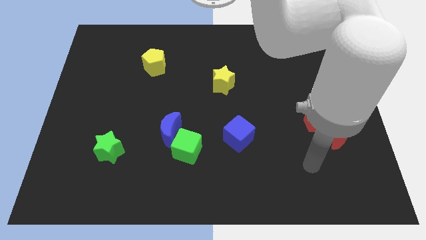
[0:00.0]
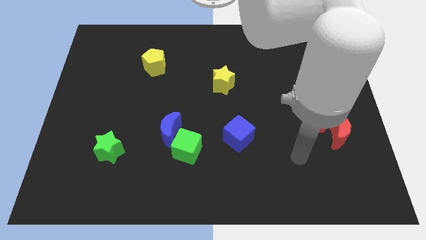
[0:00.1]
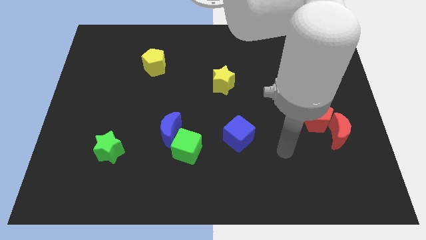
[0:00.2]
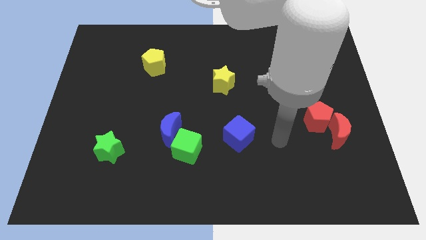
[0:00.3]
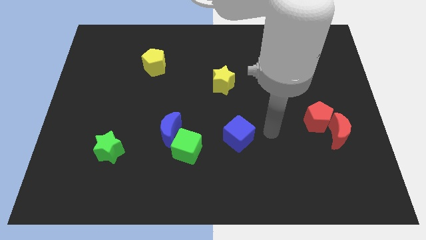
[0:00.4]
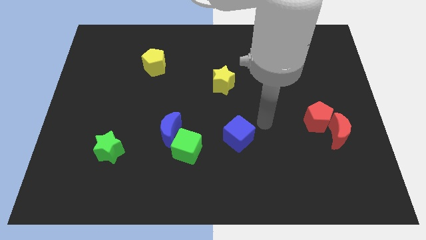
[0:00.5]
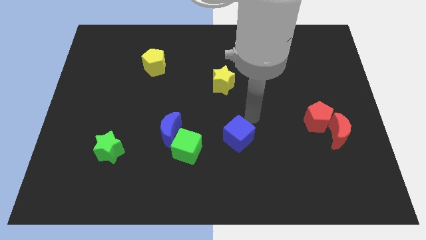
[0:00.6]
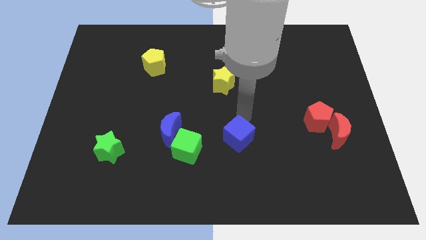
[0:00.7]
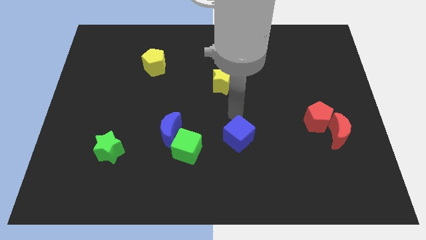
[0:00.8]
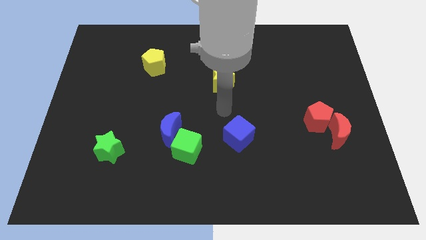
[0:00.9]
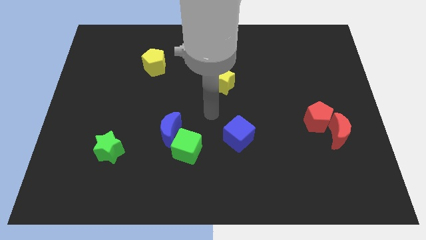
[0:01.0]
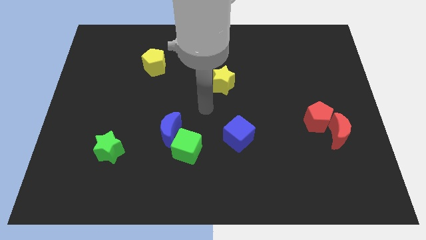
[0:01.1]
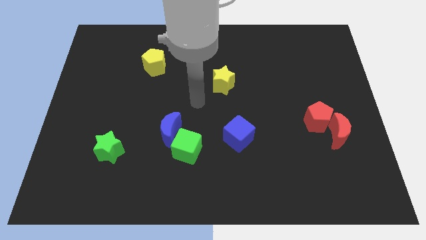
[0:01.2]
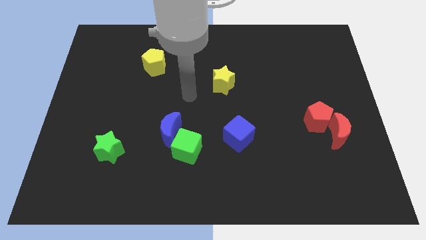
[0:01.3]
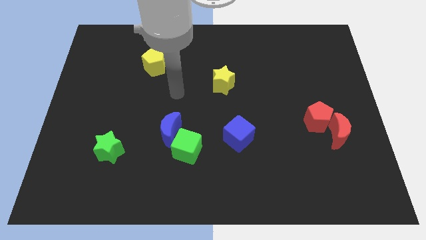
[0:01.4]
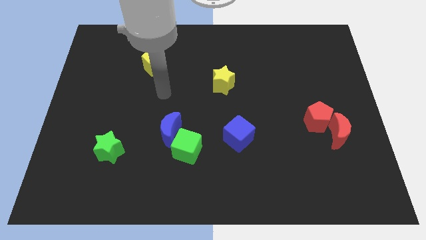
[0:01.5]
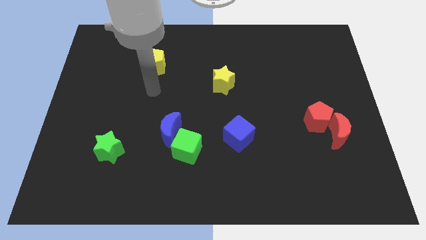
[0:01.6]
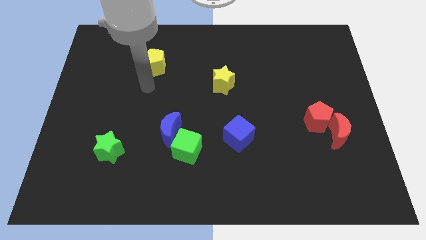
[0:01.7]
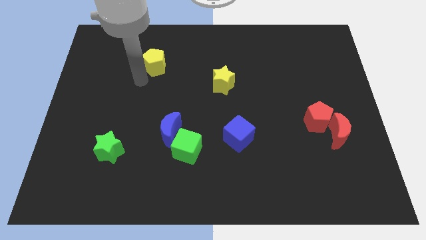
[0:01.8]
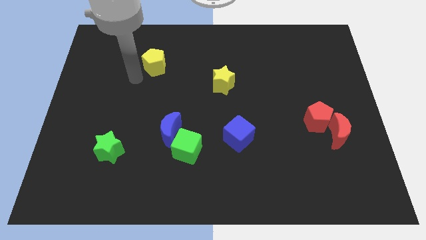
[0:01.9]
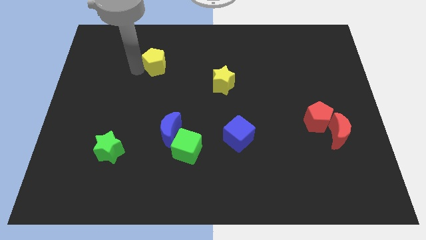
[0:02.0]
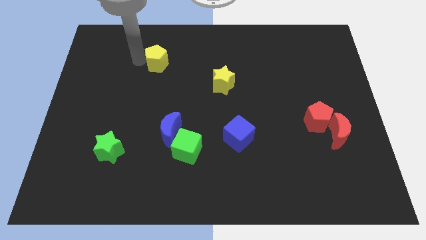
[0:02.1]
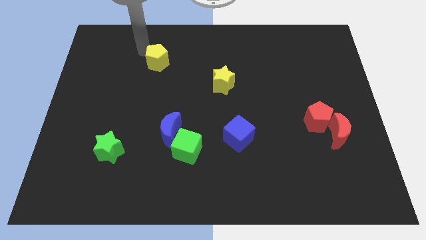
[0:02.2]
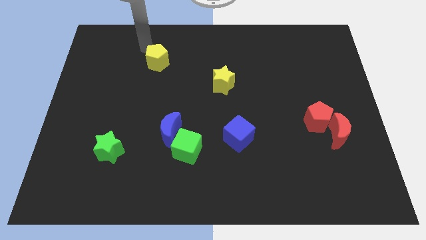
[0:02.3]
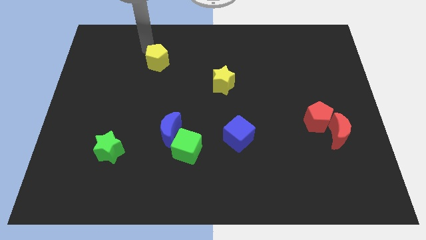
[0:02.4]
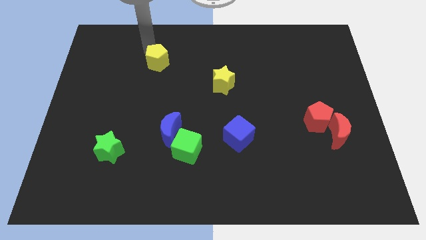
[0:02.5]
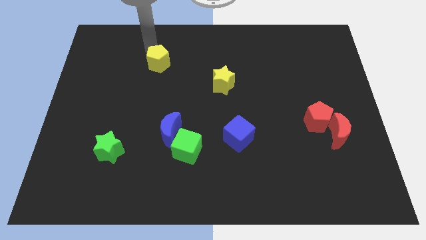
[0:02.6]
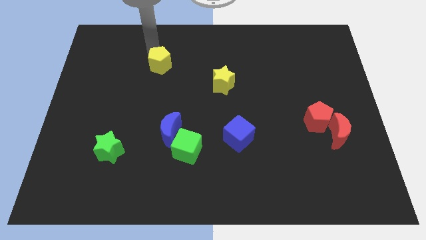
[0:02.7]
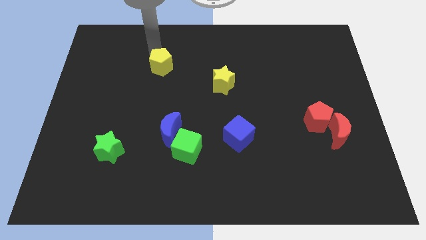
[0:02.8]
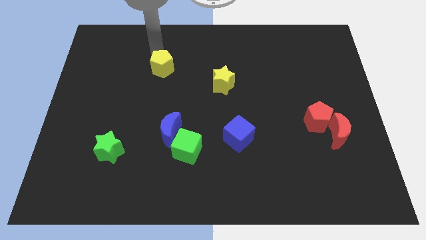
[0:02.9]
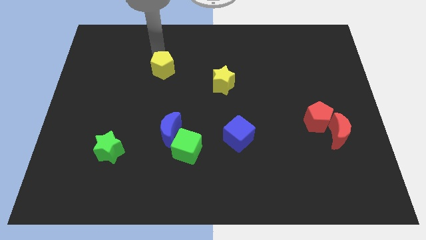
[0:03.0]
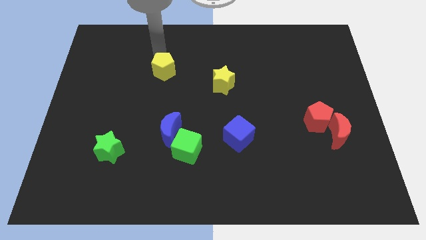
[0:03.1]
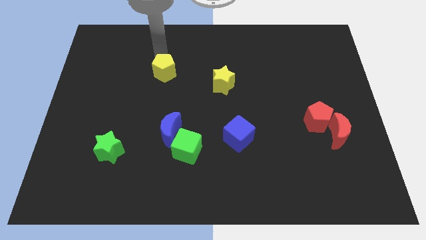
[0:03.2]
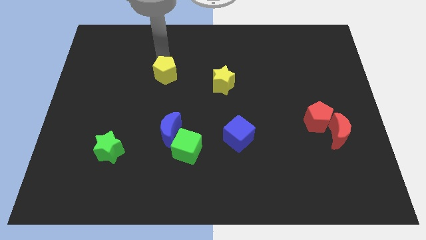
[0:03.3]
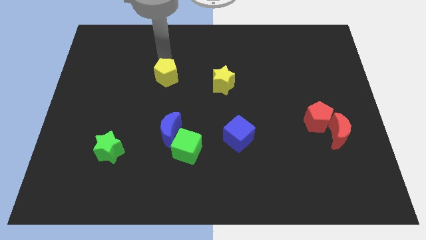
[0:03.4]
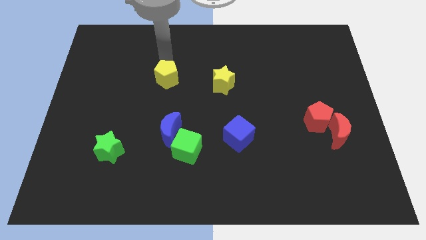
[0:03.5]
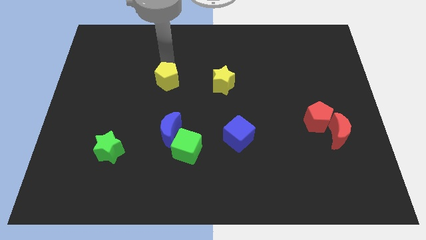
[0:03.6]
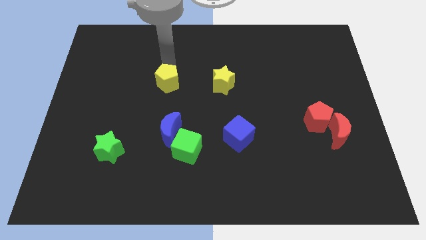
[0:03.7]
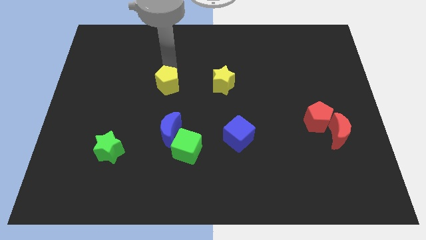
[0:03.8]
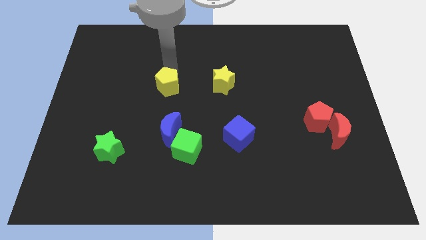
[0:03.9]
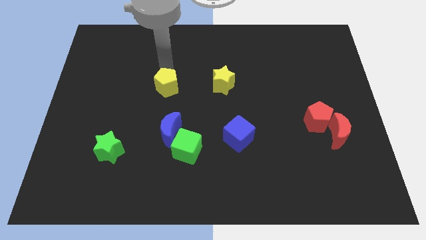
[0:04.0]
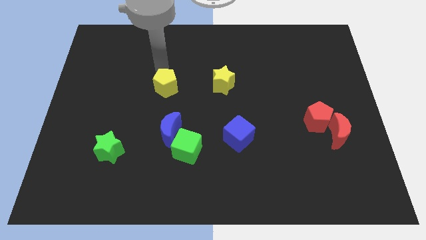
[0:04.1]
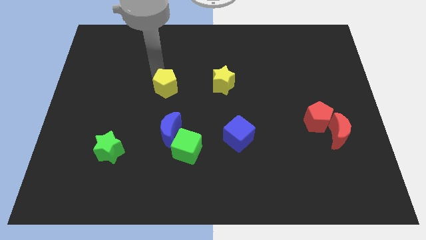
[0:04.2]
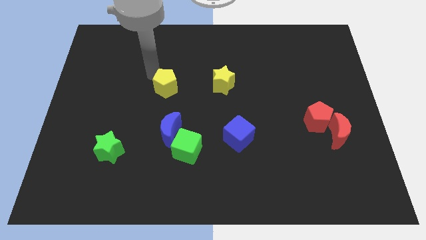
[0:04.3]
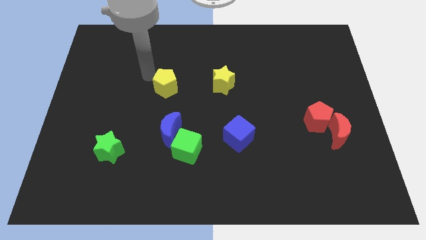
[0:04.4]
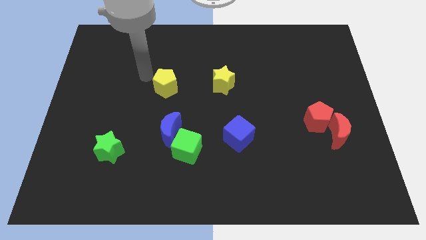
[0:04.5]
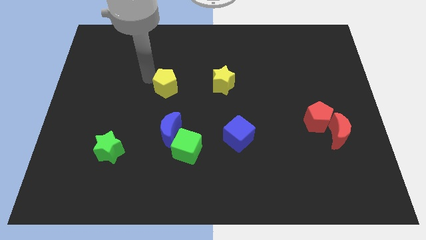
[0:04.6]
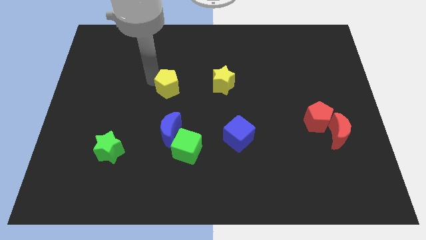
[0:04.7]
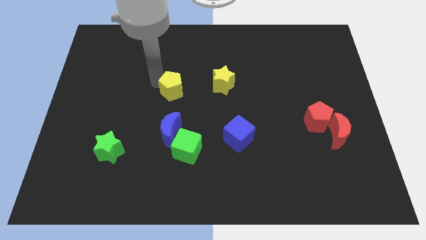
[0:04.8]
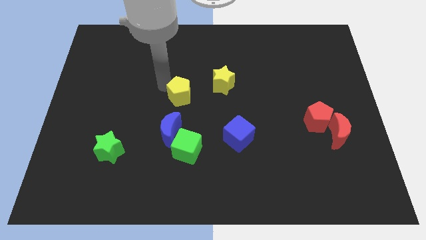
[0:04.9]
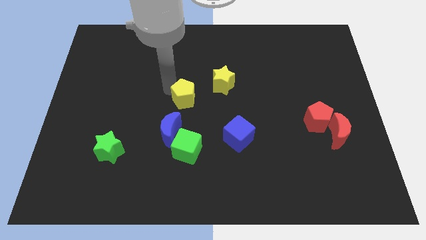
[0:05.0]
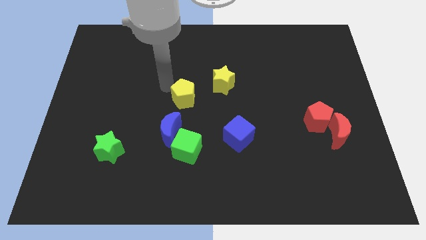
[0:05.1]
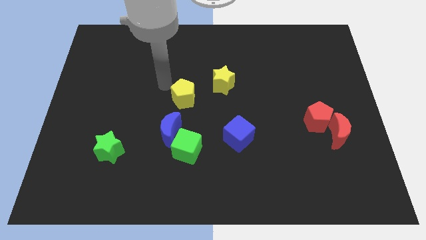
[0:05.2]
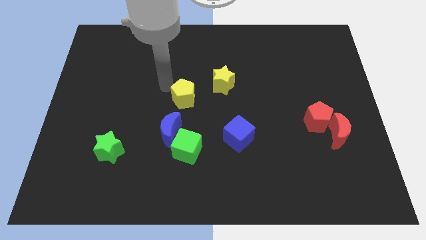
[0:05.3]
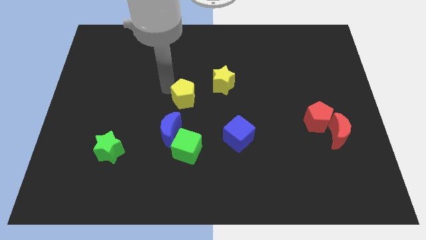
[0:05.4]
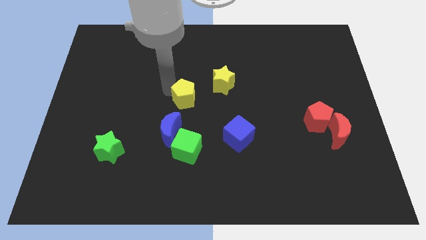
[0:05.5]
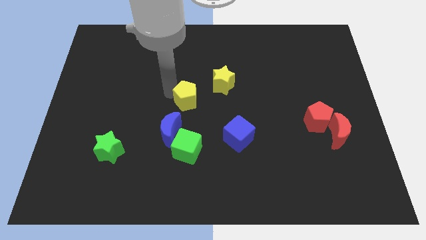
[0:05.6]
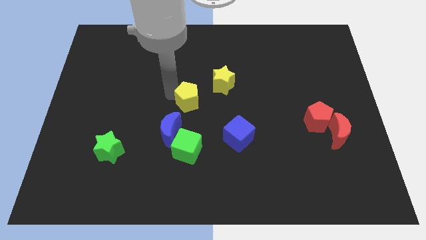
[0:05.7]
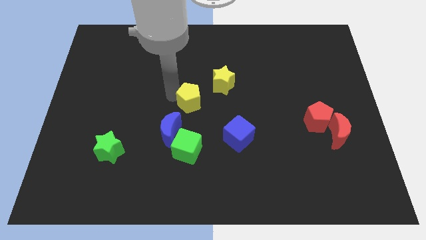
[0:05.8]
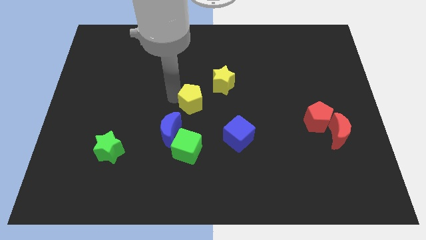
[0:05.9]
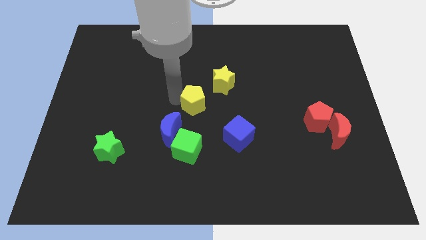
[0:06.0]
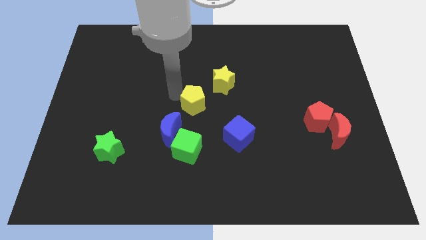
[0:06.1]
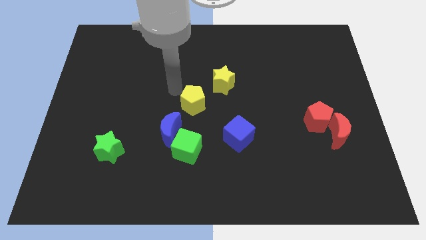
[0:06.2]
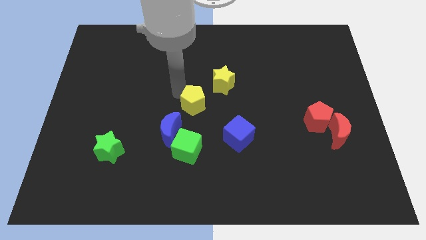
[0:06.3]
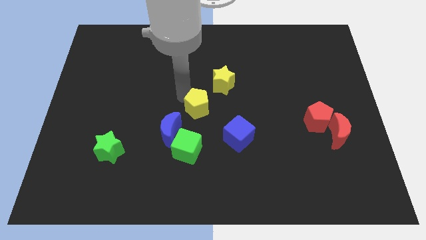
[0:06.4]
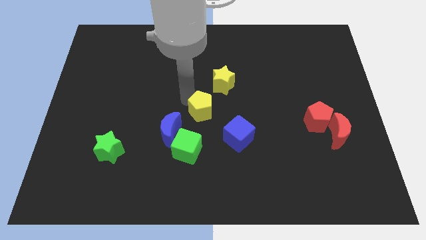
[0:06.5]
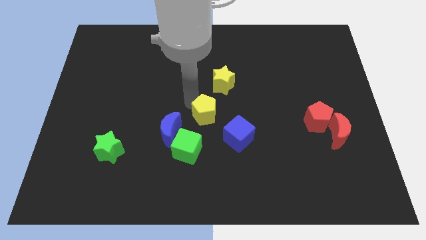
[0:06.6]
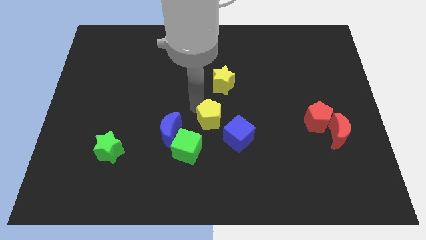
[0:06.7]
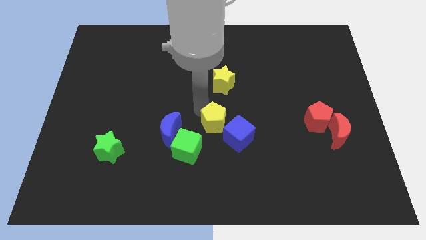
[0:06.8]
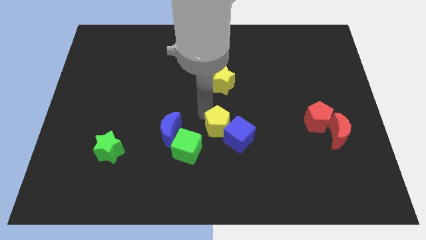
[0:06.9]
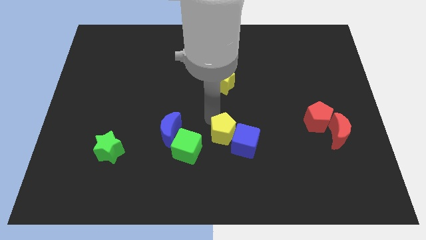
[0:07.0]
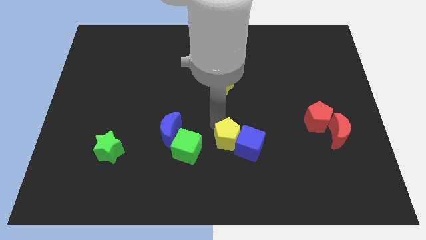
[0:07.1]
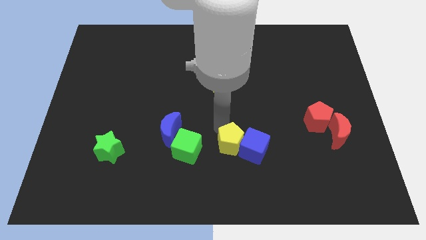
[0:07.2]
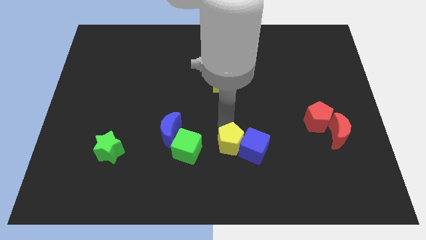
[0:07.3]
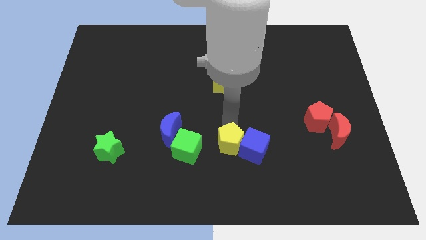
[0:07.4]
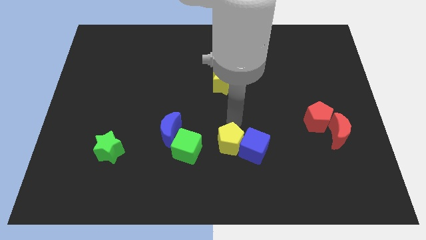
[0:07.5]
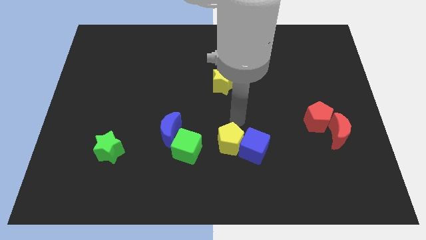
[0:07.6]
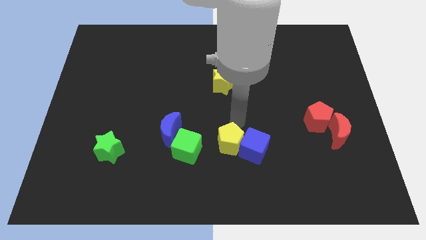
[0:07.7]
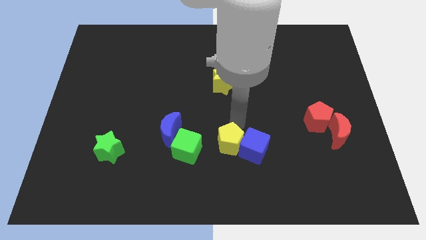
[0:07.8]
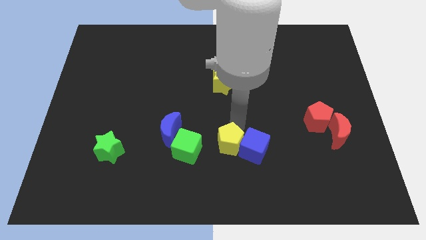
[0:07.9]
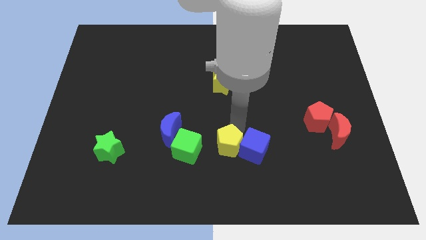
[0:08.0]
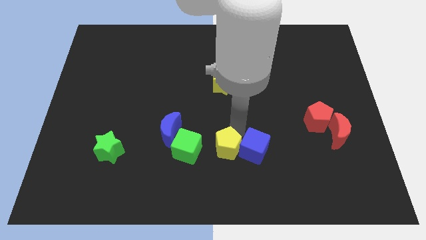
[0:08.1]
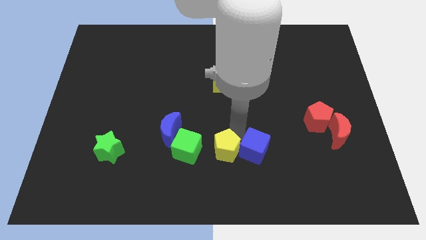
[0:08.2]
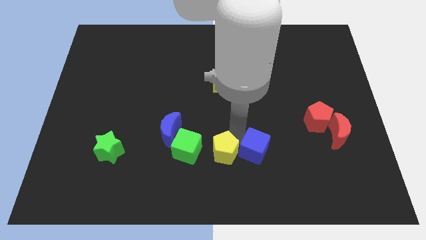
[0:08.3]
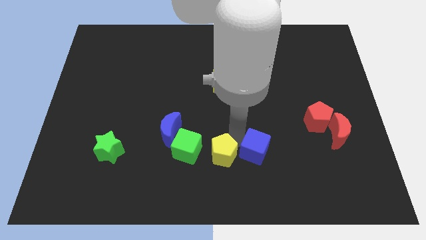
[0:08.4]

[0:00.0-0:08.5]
put the yellow pentagon to the bottom side
